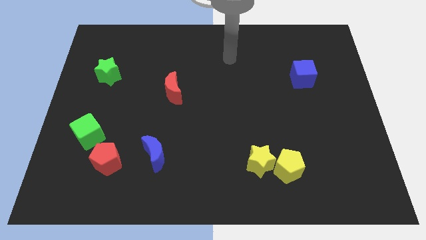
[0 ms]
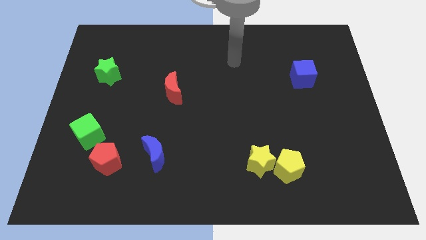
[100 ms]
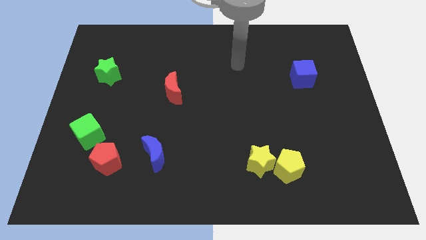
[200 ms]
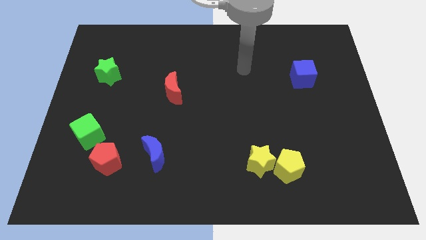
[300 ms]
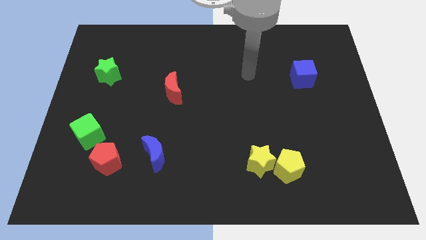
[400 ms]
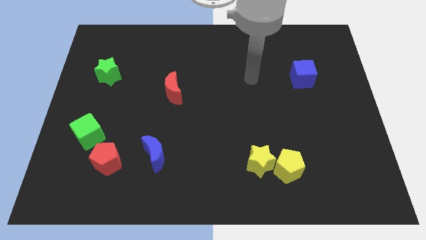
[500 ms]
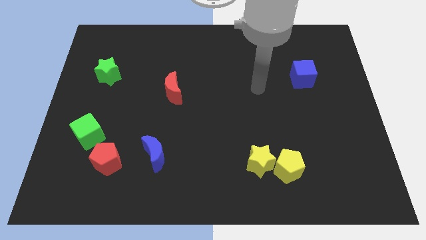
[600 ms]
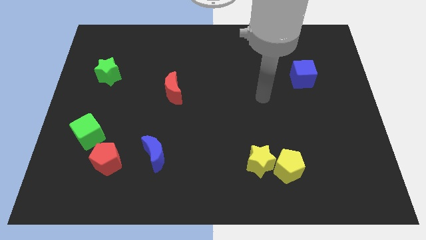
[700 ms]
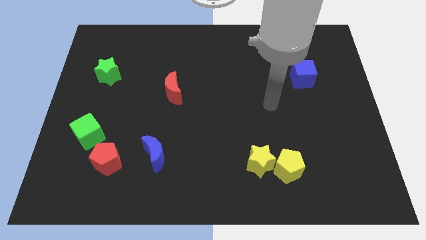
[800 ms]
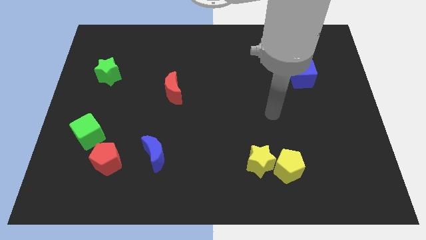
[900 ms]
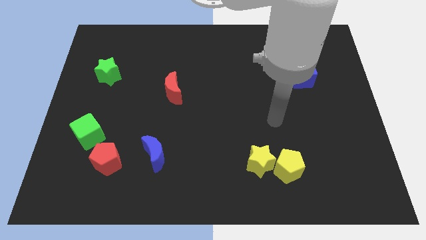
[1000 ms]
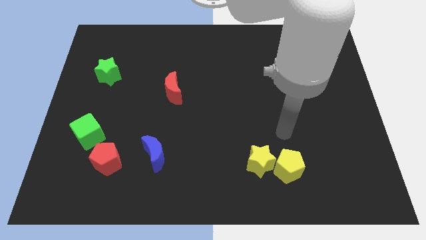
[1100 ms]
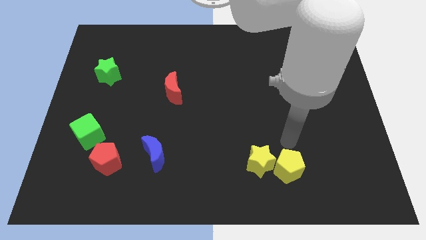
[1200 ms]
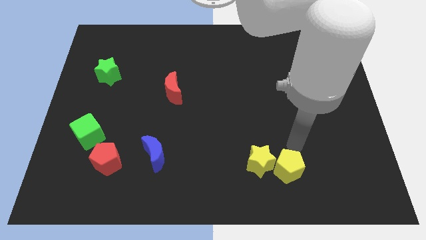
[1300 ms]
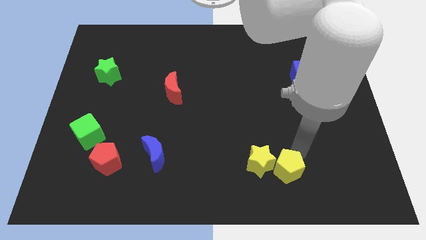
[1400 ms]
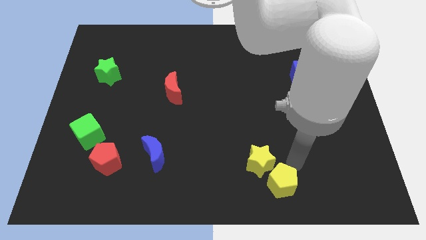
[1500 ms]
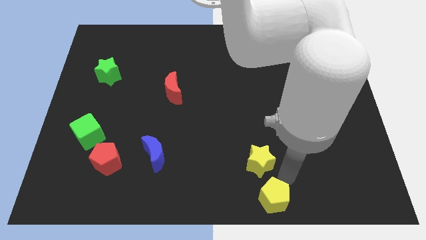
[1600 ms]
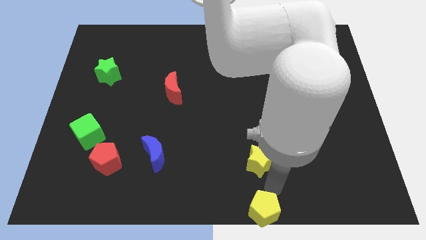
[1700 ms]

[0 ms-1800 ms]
move the yellow star away from the yellow pentagon

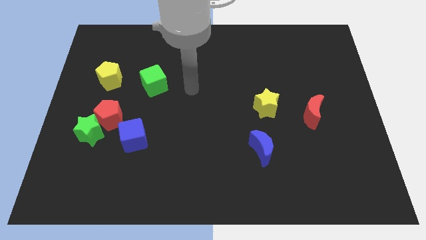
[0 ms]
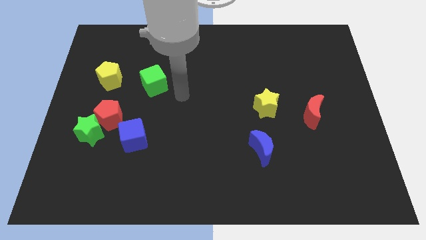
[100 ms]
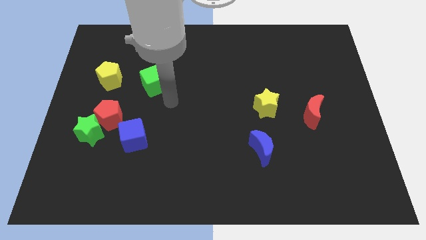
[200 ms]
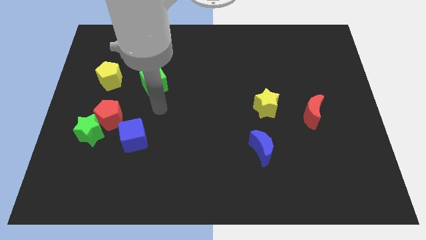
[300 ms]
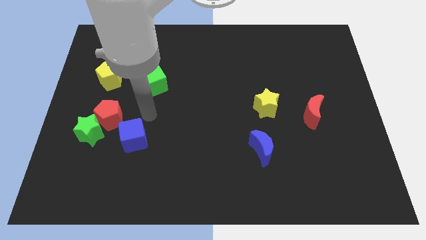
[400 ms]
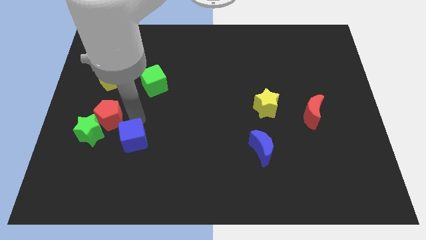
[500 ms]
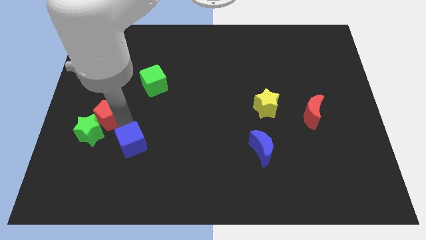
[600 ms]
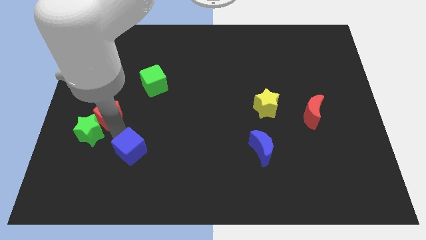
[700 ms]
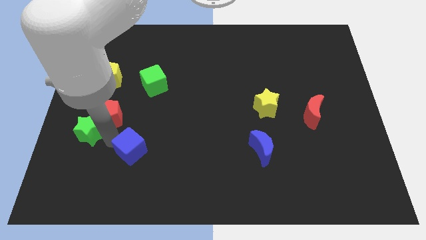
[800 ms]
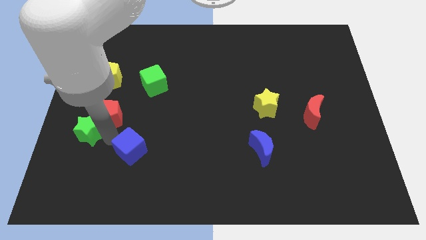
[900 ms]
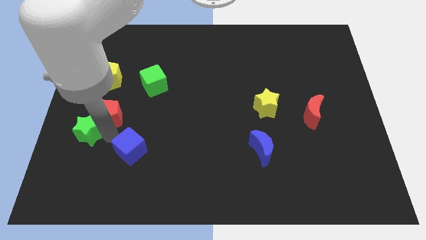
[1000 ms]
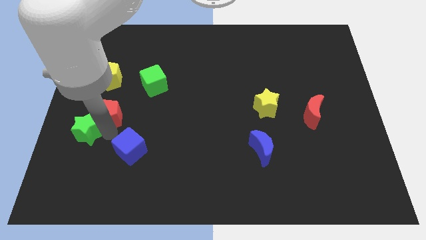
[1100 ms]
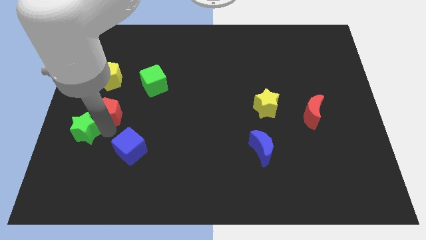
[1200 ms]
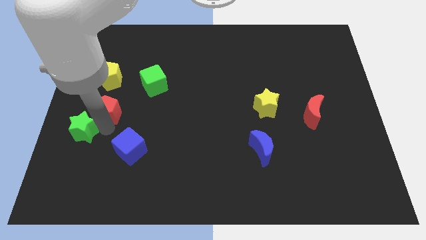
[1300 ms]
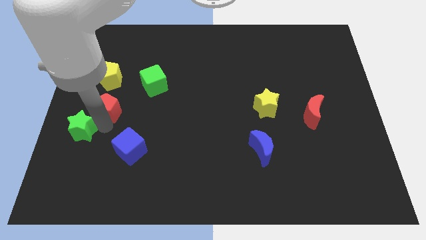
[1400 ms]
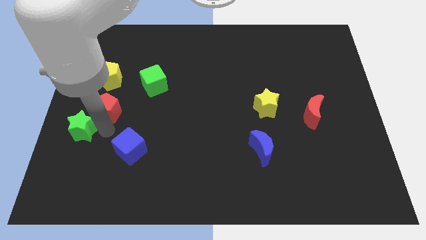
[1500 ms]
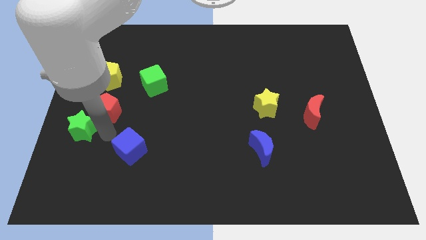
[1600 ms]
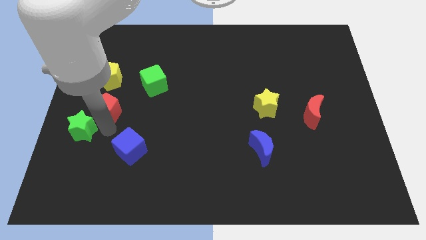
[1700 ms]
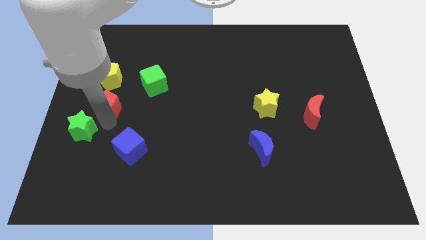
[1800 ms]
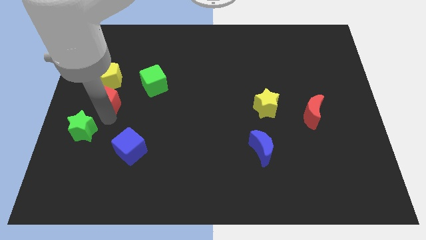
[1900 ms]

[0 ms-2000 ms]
separate the red pentagon from the green star and blue cube

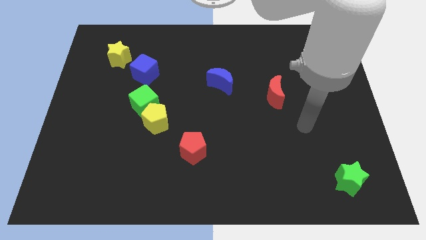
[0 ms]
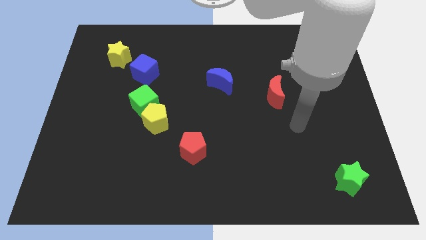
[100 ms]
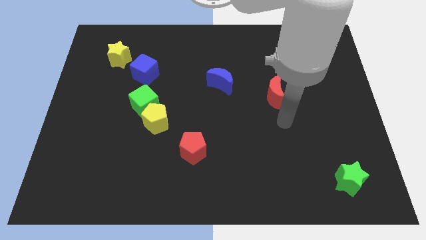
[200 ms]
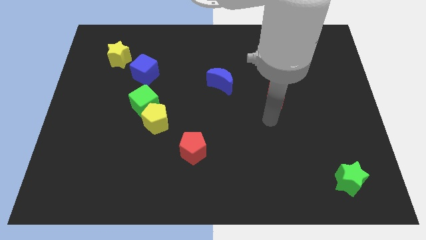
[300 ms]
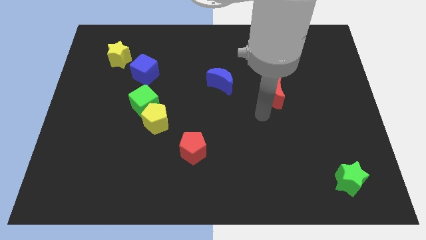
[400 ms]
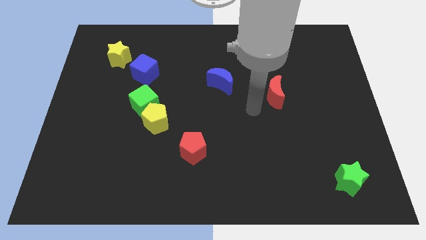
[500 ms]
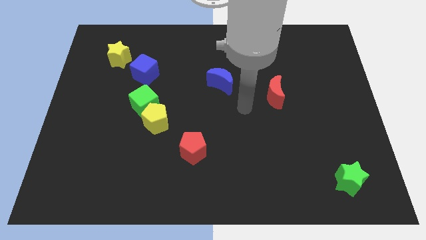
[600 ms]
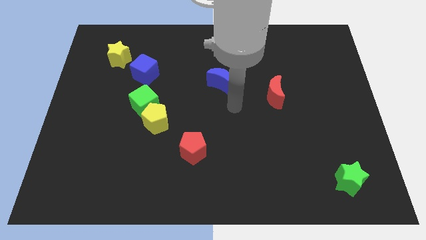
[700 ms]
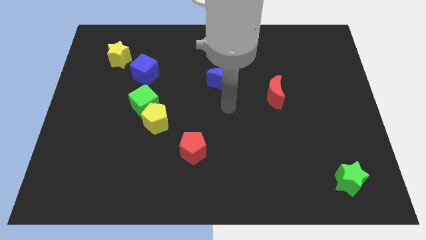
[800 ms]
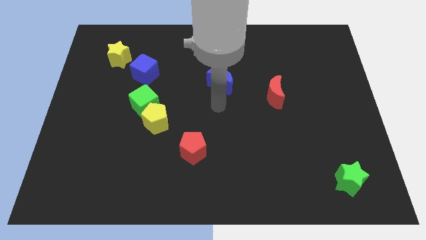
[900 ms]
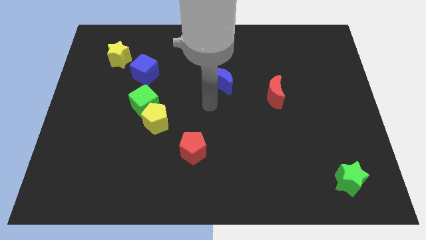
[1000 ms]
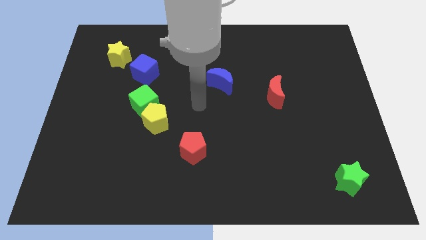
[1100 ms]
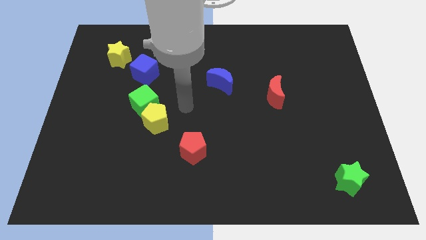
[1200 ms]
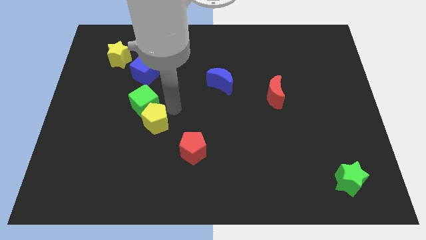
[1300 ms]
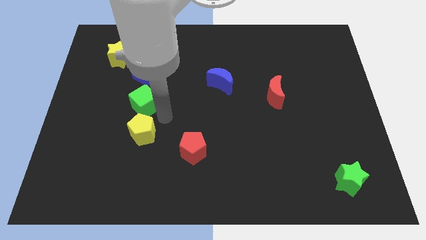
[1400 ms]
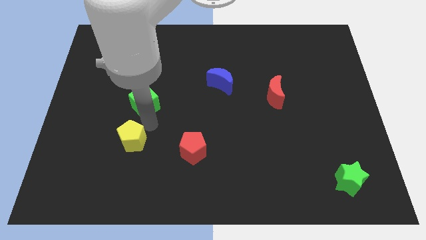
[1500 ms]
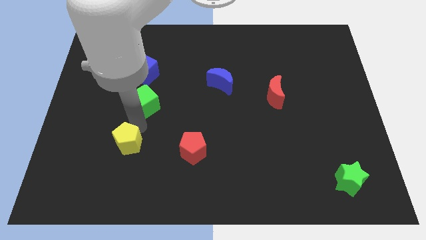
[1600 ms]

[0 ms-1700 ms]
move the green cube away from the yellow pentagon

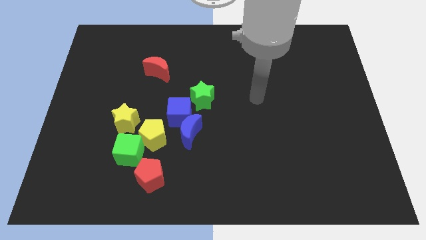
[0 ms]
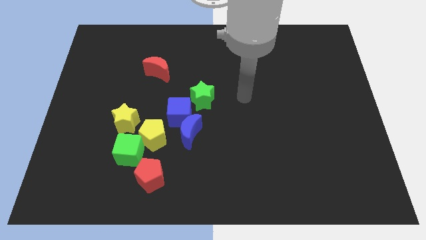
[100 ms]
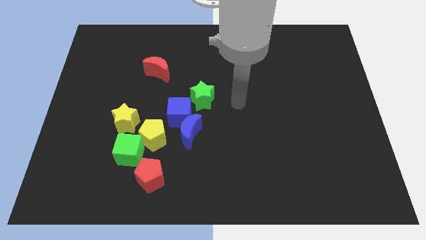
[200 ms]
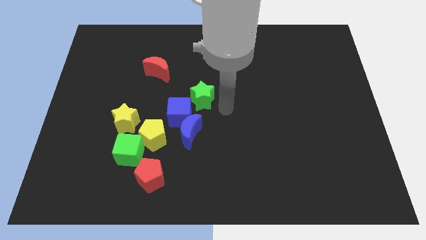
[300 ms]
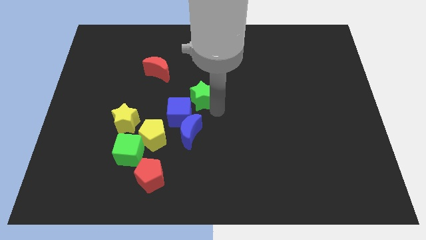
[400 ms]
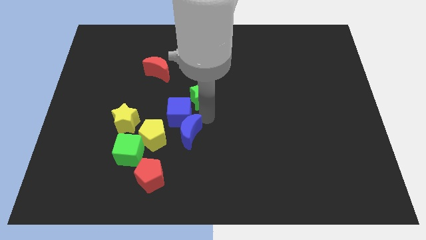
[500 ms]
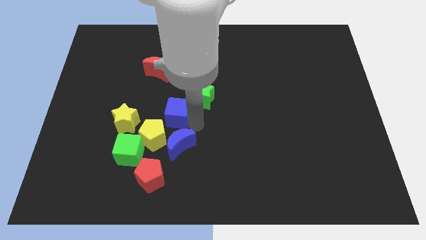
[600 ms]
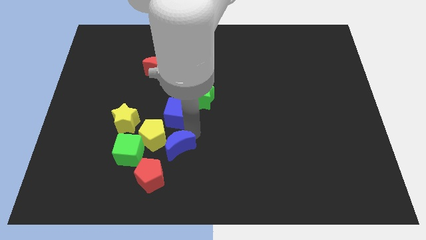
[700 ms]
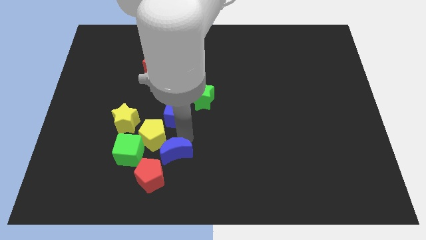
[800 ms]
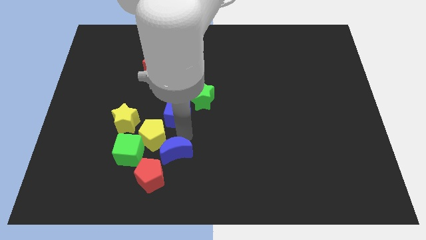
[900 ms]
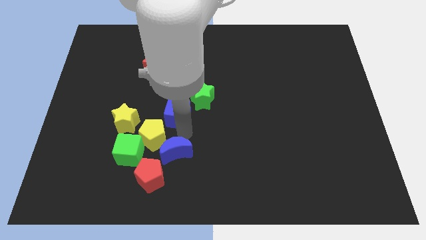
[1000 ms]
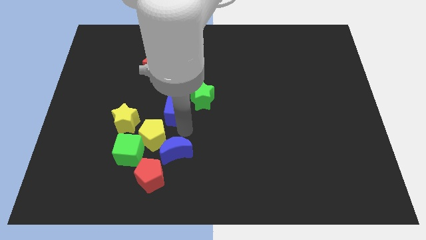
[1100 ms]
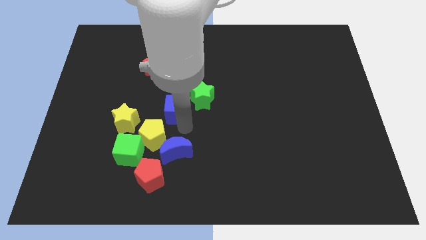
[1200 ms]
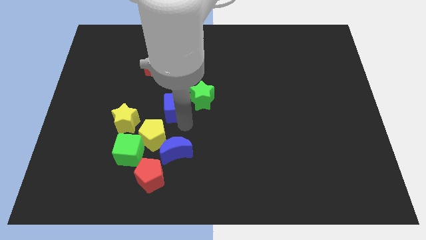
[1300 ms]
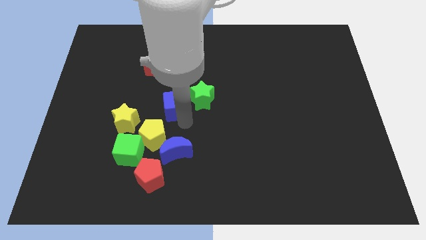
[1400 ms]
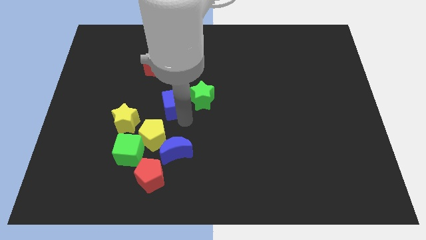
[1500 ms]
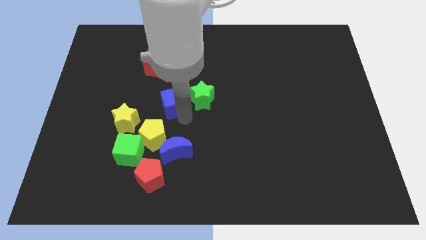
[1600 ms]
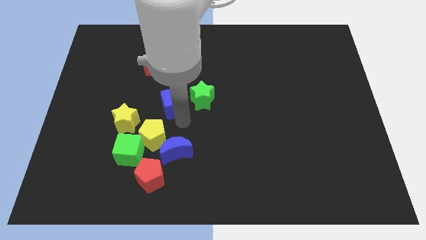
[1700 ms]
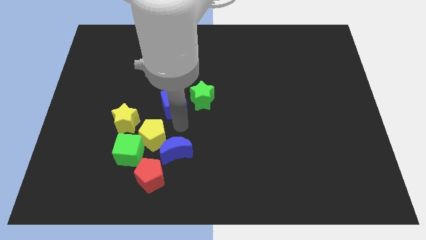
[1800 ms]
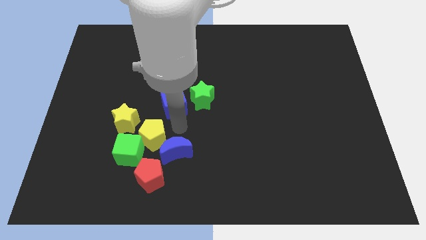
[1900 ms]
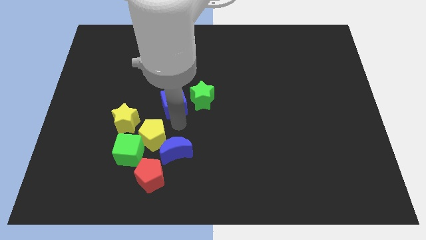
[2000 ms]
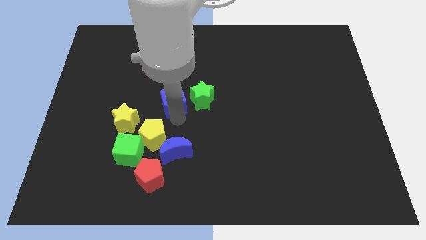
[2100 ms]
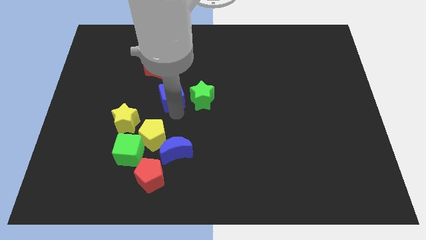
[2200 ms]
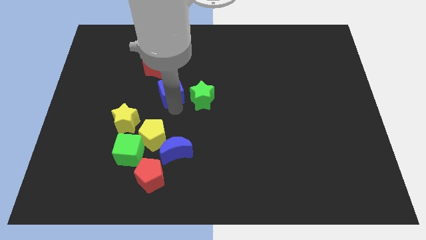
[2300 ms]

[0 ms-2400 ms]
separate the blue cube from the group

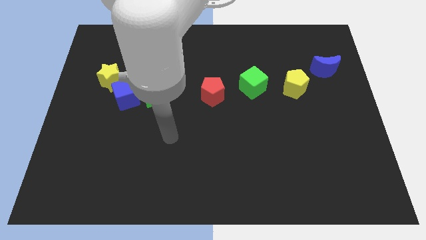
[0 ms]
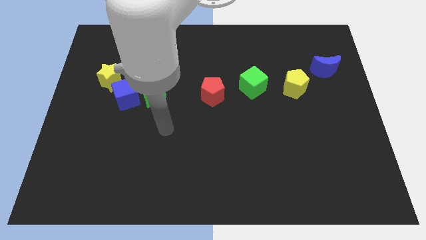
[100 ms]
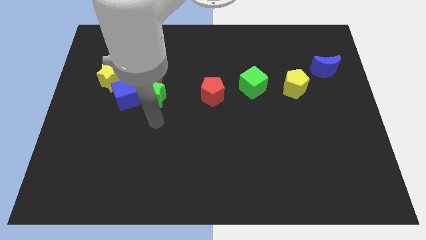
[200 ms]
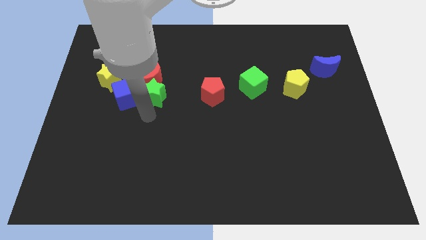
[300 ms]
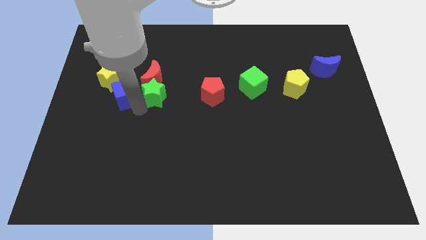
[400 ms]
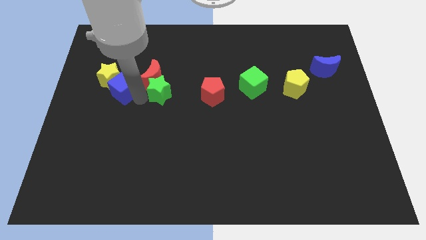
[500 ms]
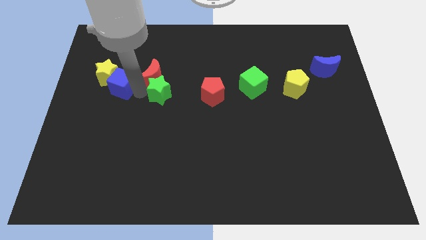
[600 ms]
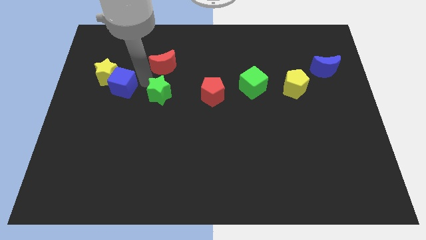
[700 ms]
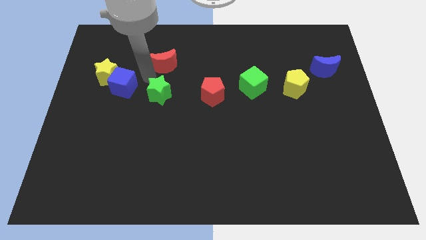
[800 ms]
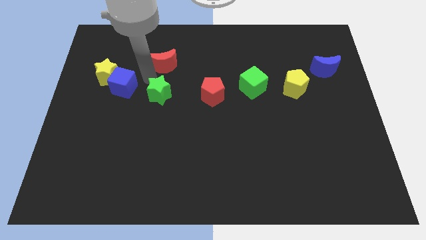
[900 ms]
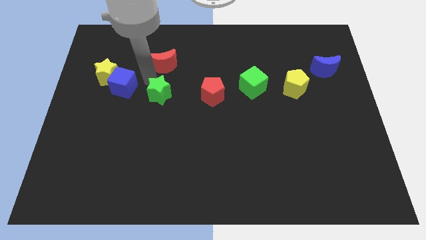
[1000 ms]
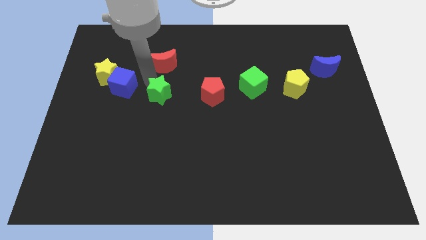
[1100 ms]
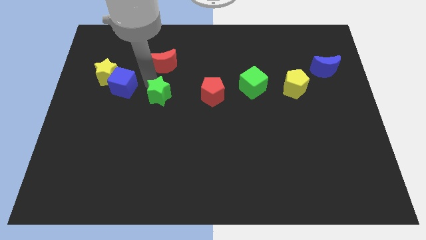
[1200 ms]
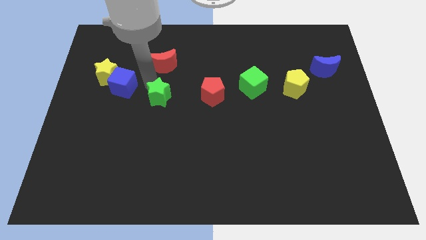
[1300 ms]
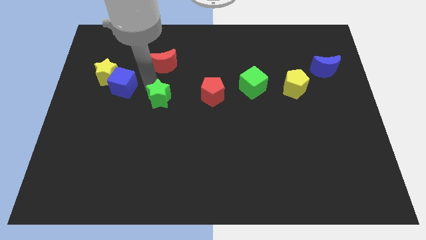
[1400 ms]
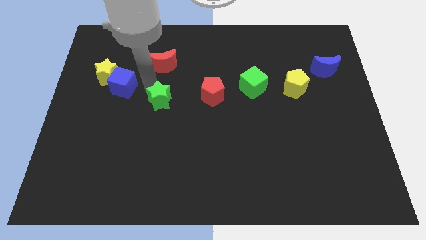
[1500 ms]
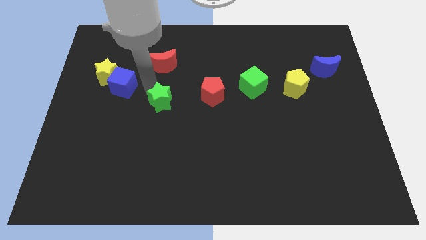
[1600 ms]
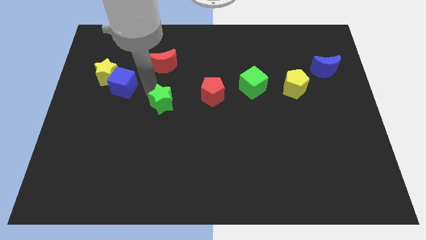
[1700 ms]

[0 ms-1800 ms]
pull the green star apart from the red moon and blue cube
